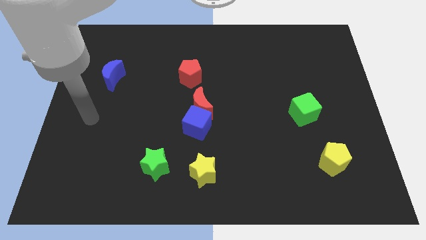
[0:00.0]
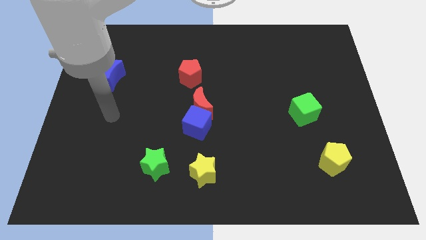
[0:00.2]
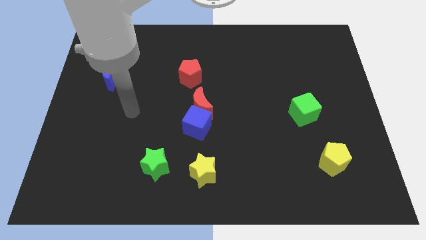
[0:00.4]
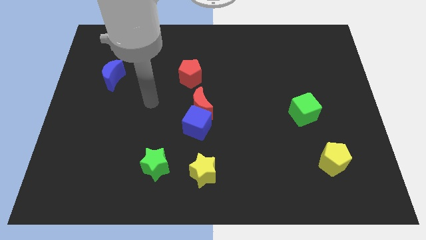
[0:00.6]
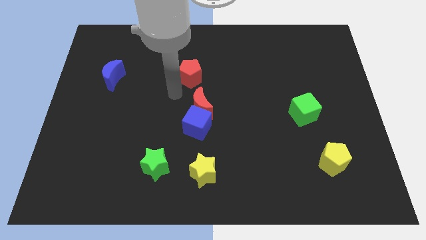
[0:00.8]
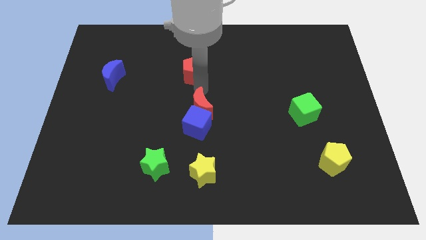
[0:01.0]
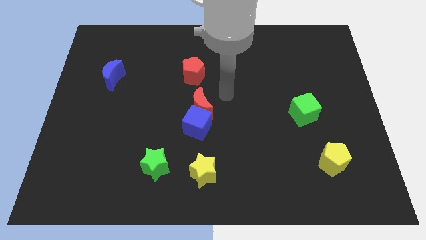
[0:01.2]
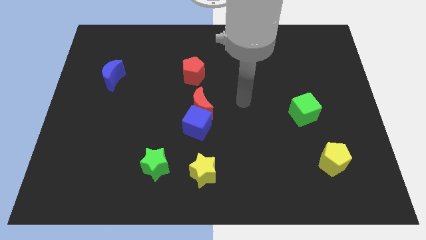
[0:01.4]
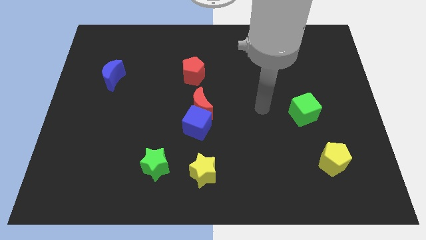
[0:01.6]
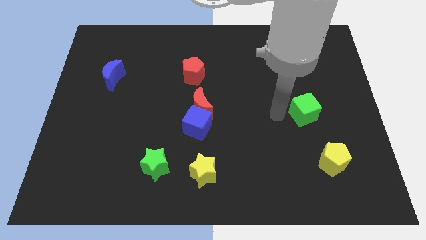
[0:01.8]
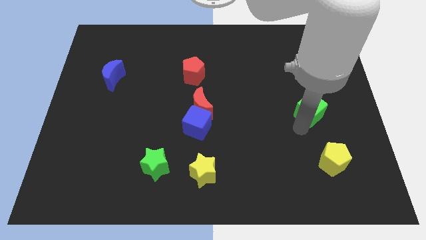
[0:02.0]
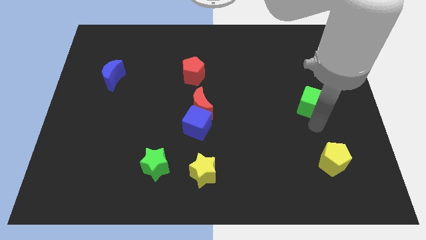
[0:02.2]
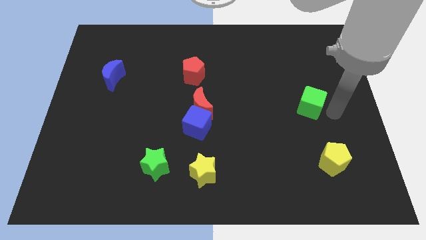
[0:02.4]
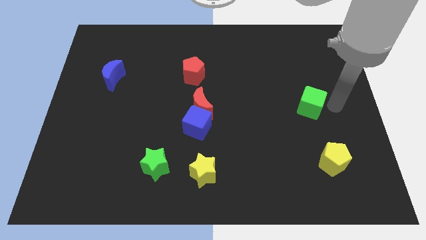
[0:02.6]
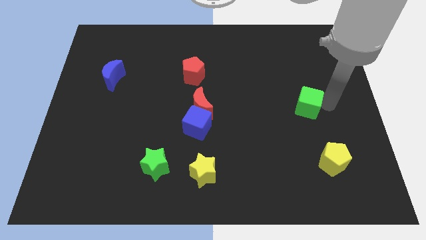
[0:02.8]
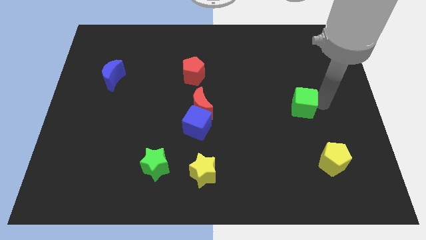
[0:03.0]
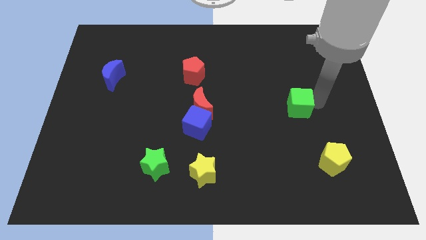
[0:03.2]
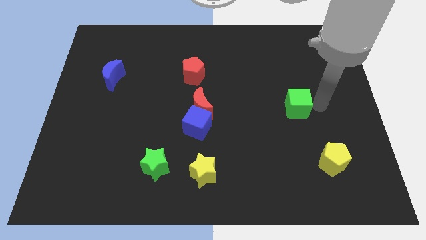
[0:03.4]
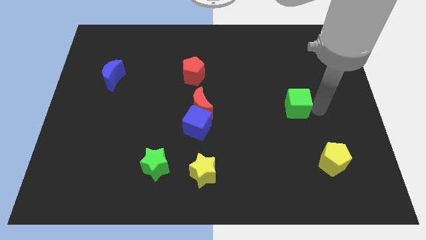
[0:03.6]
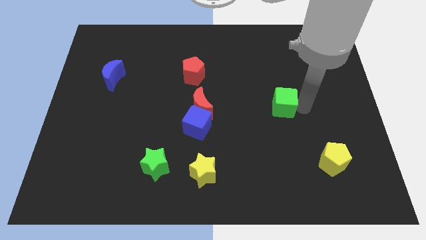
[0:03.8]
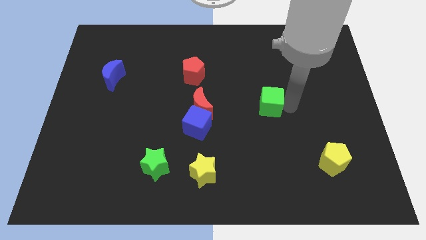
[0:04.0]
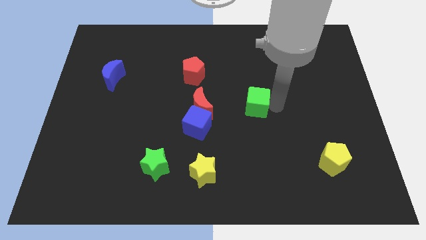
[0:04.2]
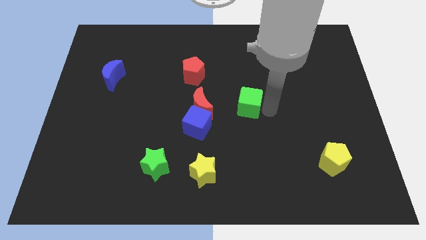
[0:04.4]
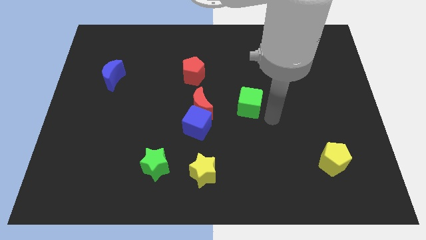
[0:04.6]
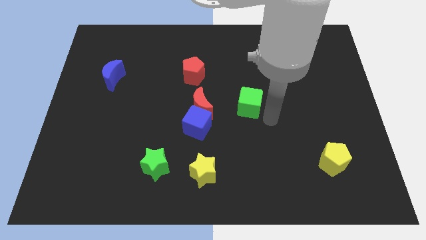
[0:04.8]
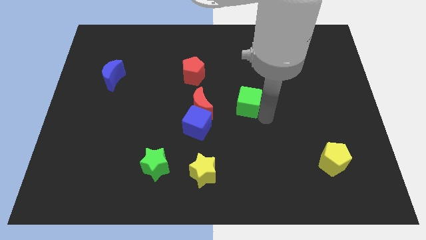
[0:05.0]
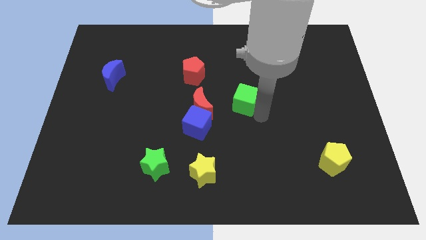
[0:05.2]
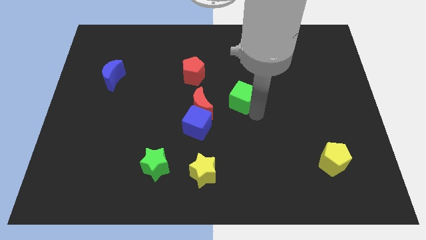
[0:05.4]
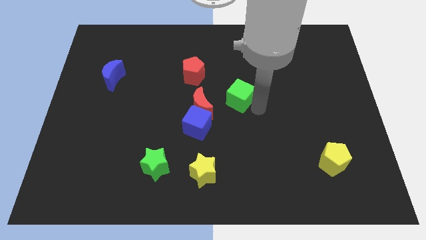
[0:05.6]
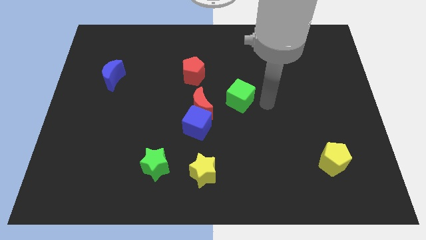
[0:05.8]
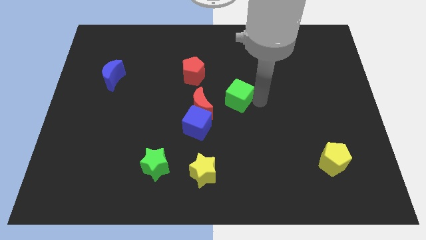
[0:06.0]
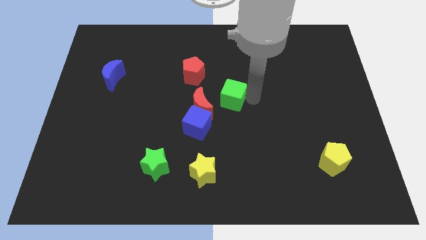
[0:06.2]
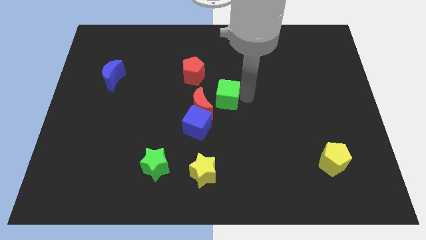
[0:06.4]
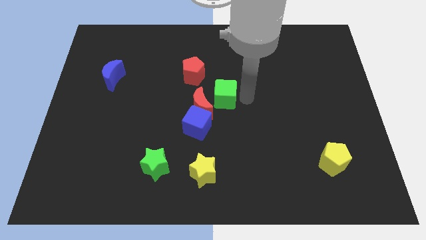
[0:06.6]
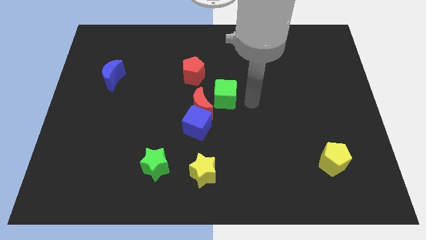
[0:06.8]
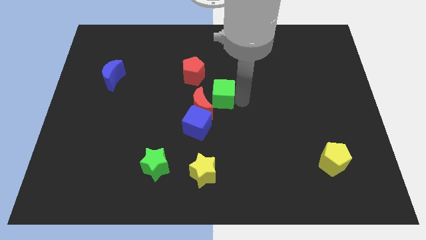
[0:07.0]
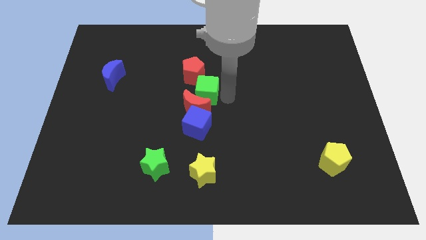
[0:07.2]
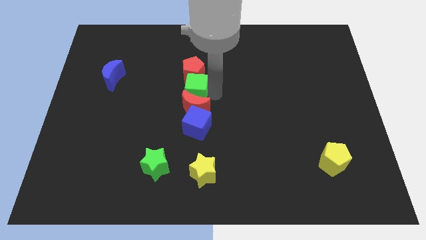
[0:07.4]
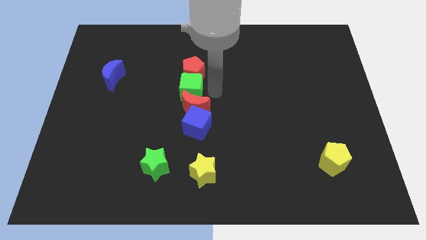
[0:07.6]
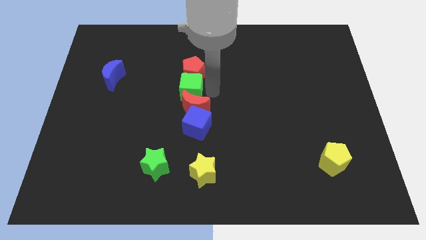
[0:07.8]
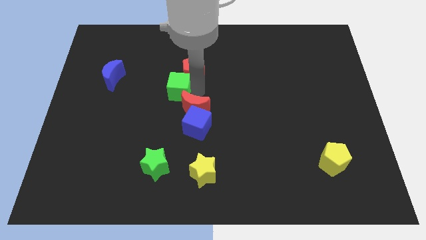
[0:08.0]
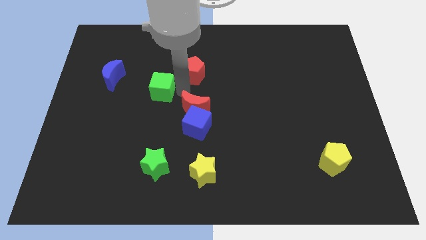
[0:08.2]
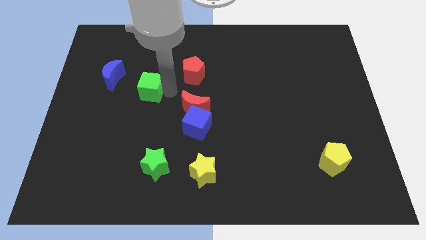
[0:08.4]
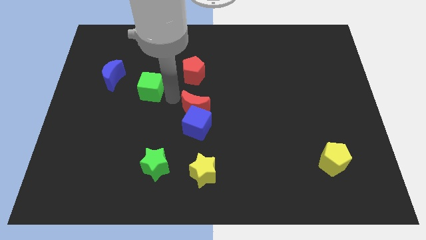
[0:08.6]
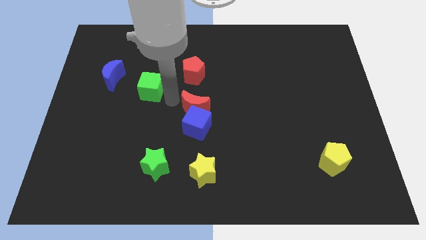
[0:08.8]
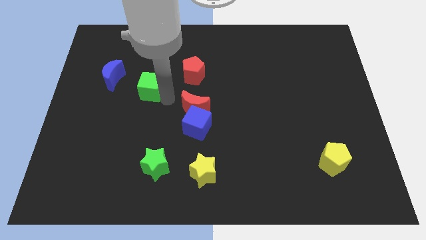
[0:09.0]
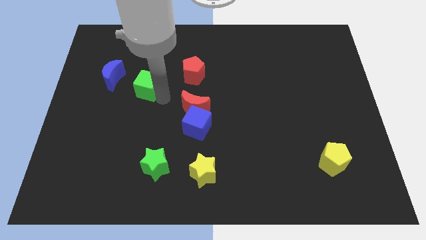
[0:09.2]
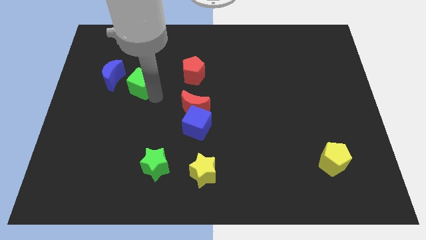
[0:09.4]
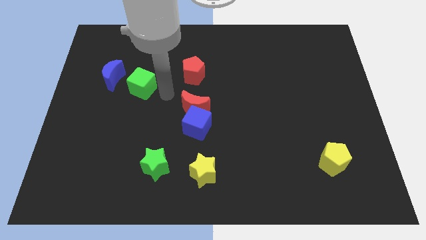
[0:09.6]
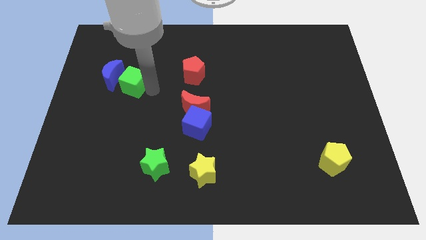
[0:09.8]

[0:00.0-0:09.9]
push the green cube towards the blue moon

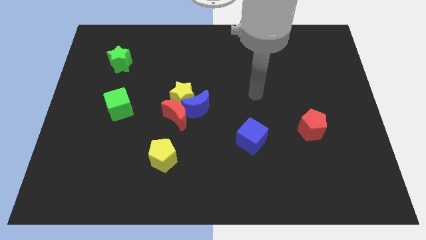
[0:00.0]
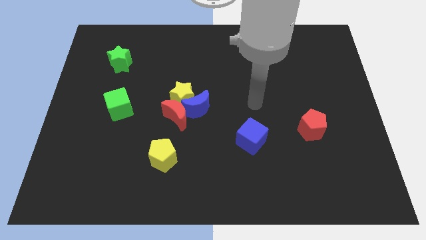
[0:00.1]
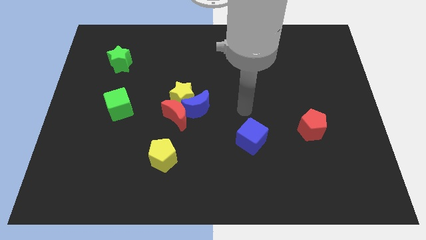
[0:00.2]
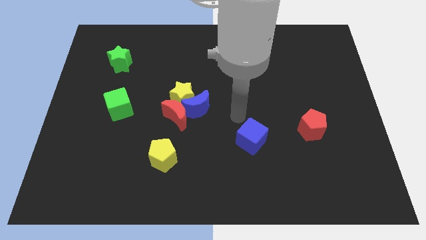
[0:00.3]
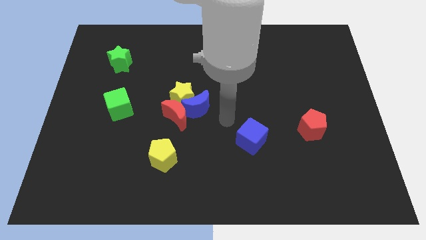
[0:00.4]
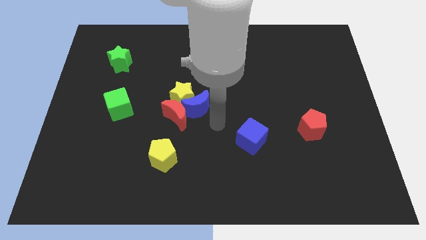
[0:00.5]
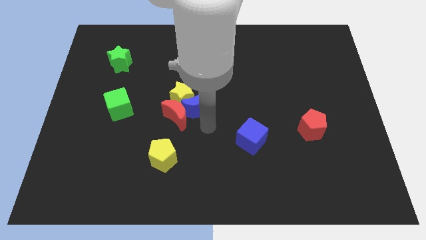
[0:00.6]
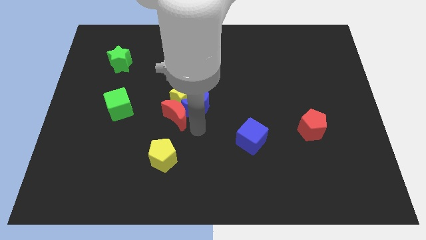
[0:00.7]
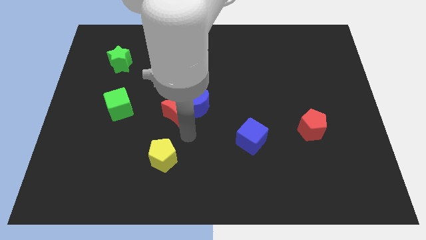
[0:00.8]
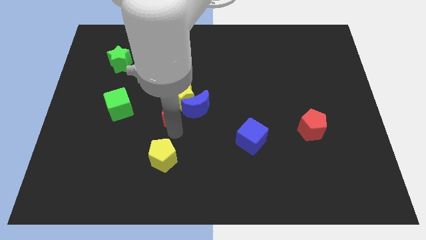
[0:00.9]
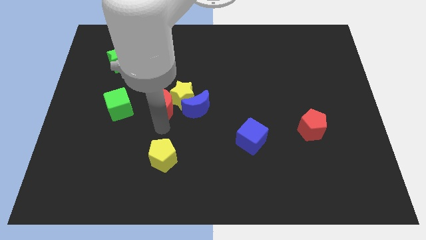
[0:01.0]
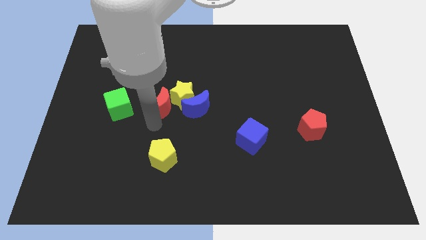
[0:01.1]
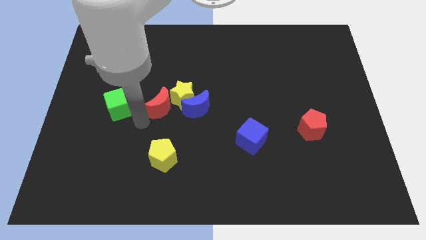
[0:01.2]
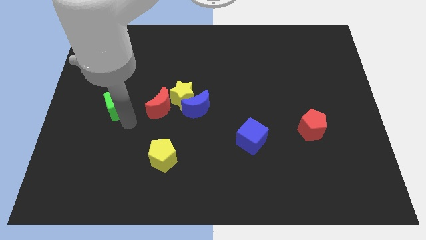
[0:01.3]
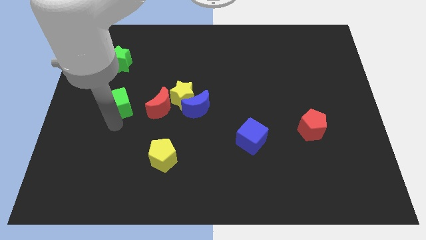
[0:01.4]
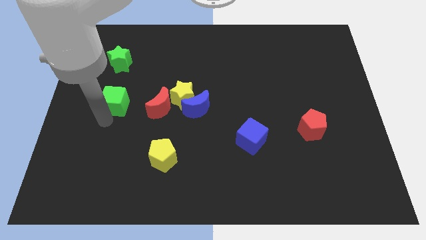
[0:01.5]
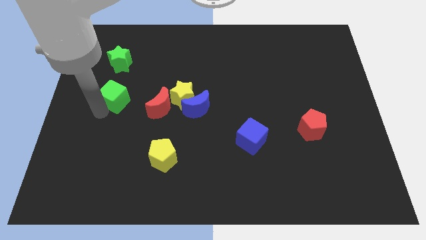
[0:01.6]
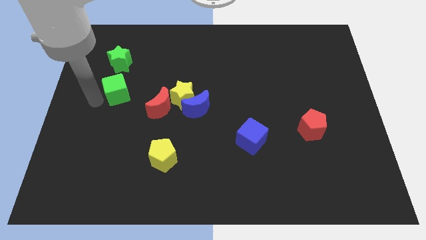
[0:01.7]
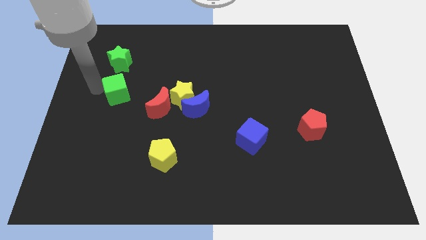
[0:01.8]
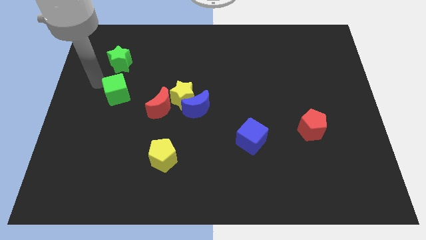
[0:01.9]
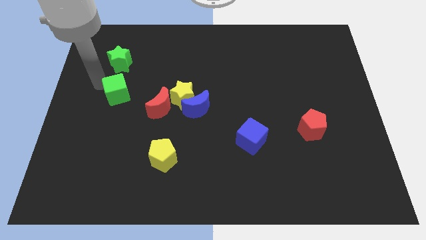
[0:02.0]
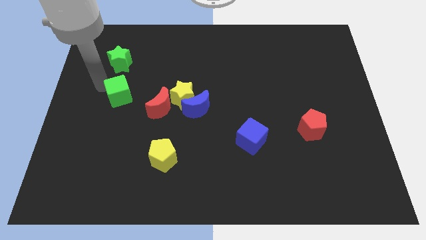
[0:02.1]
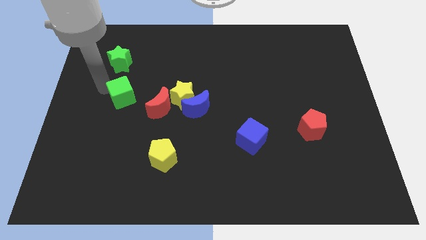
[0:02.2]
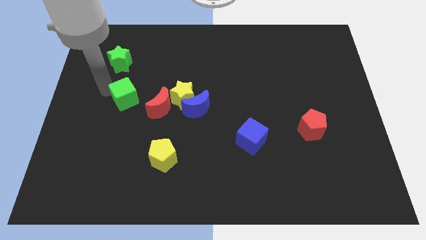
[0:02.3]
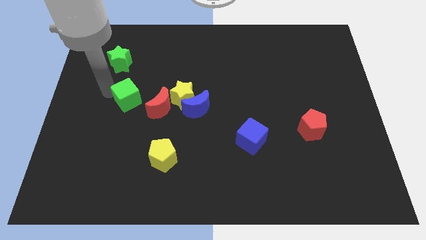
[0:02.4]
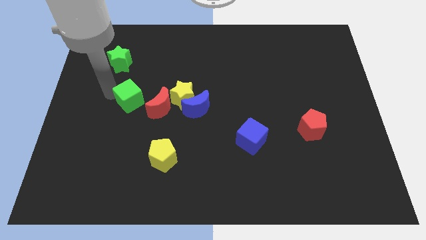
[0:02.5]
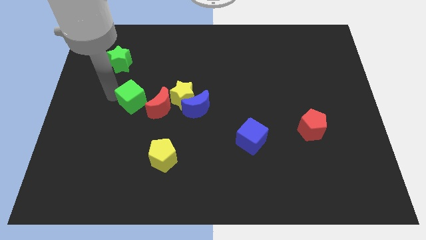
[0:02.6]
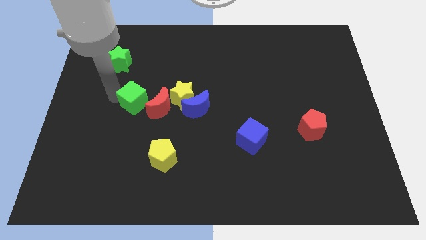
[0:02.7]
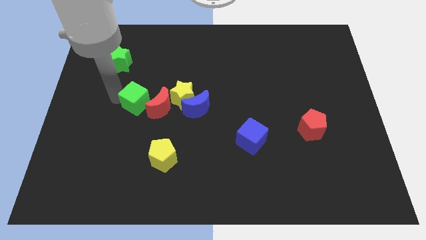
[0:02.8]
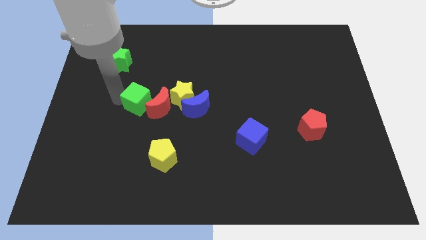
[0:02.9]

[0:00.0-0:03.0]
slide the green cube to the red moon
